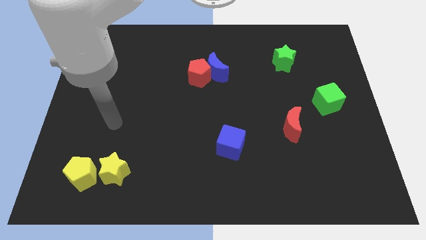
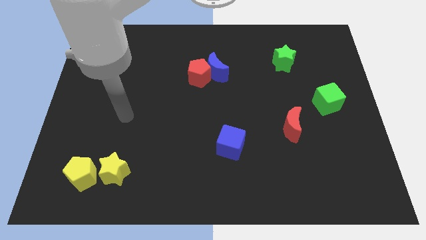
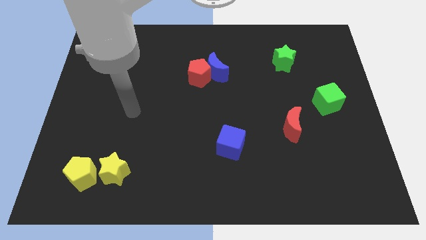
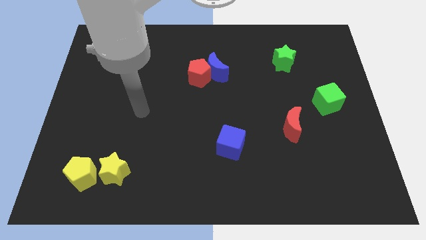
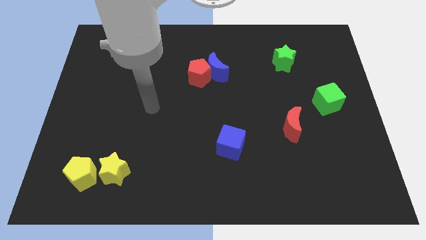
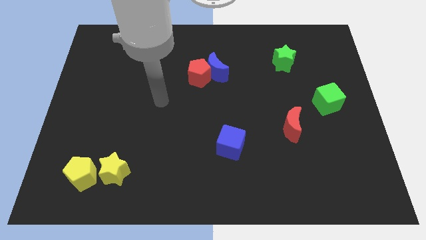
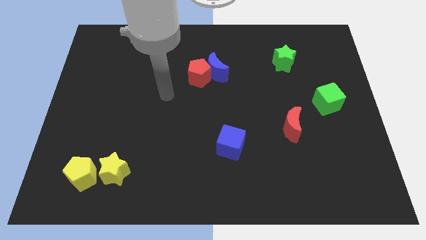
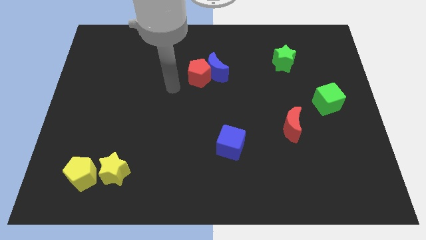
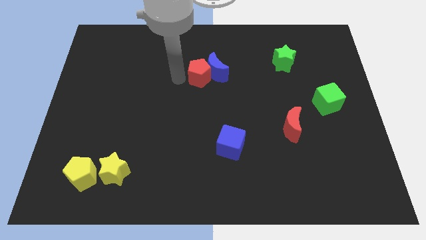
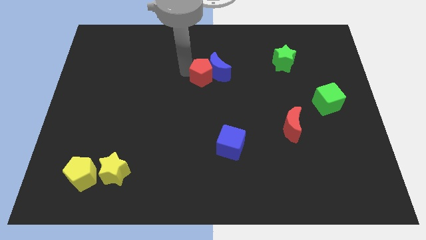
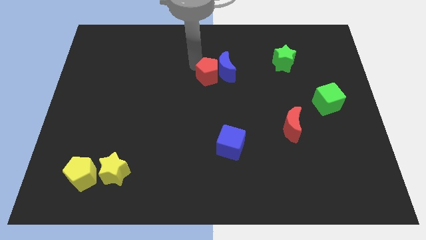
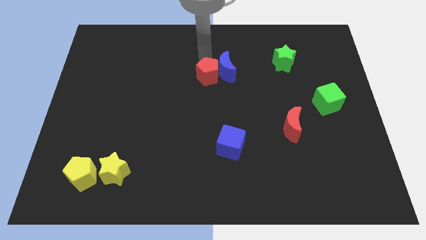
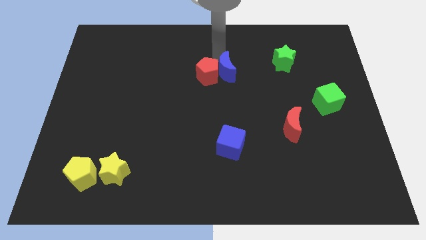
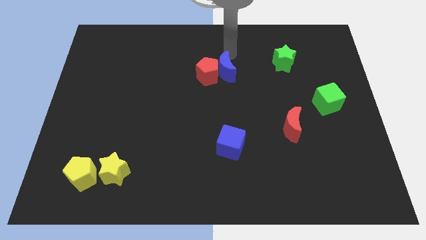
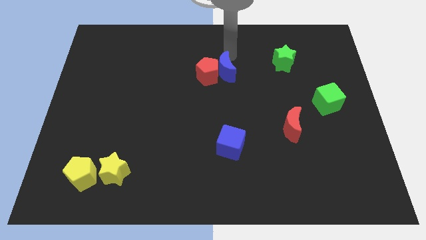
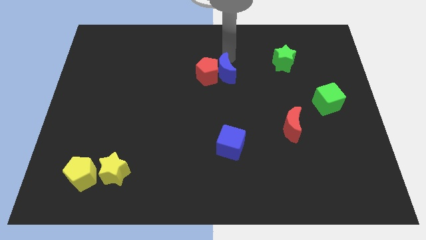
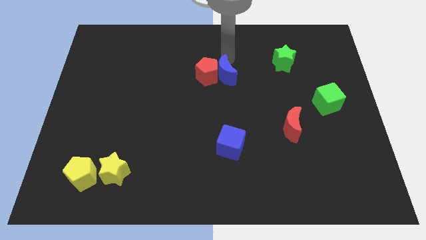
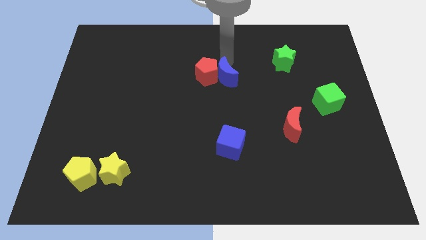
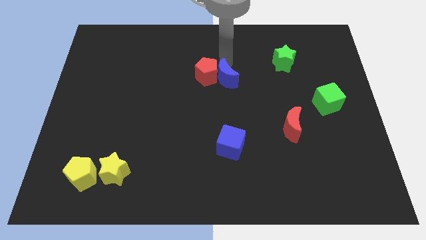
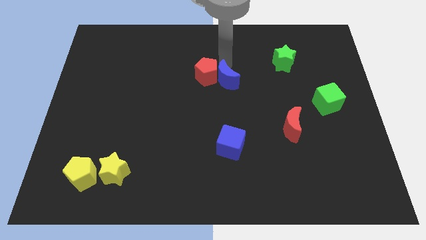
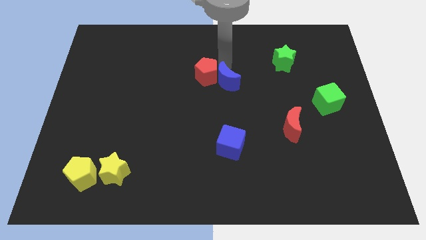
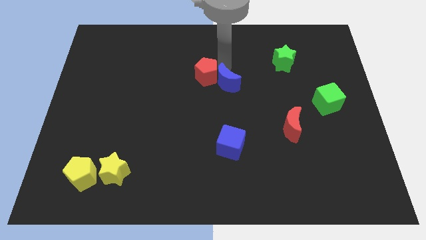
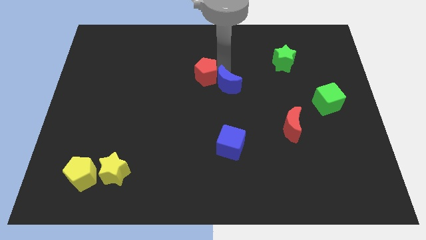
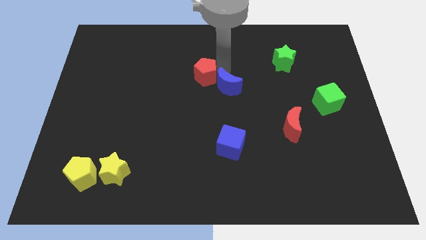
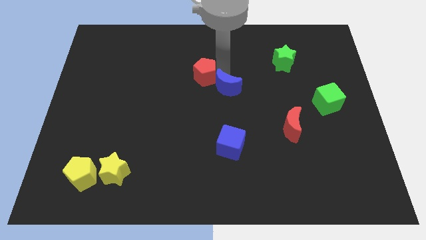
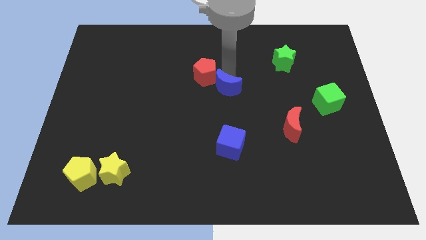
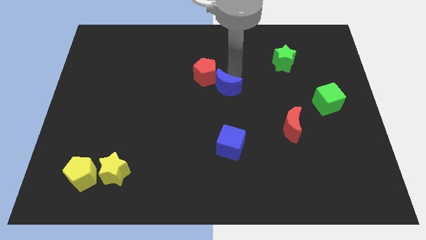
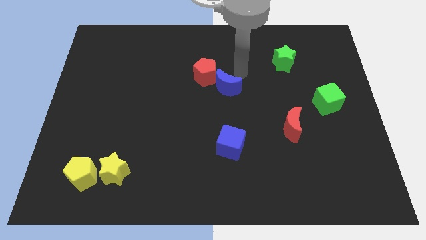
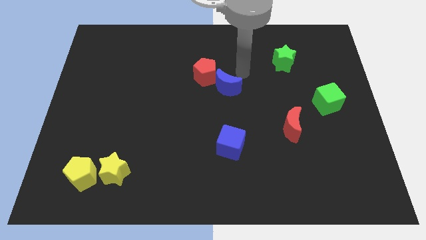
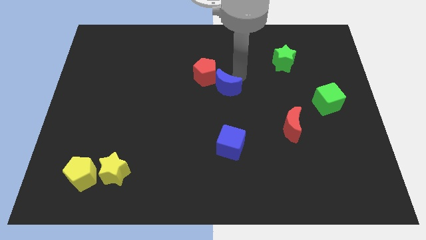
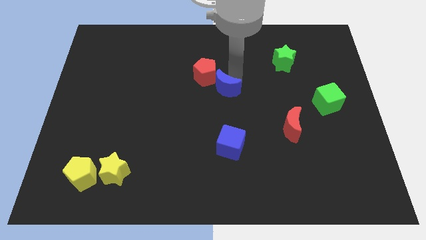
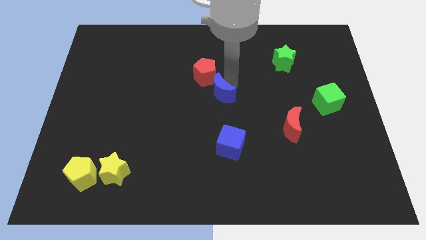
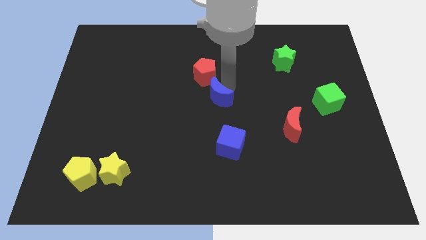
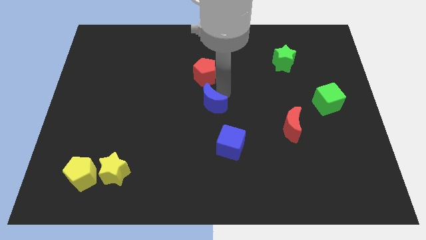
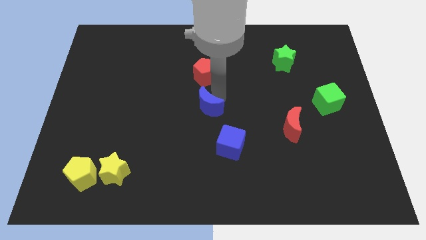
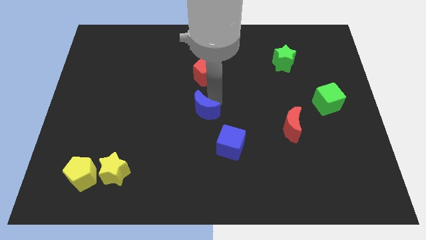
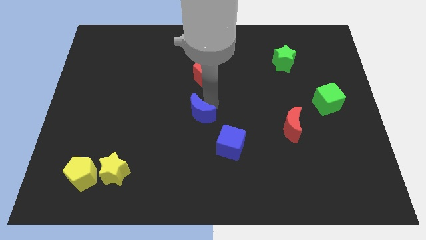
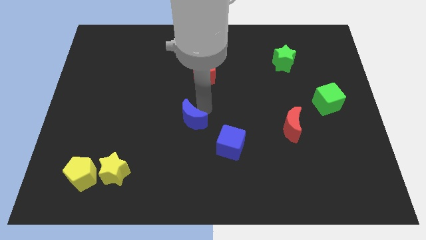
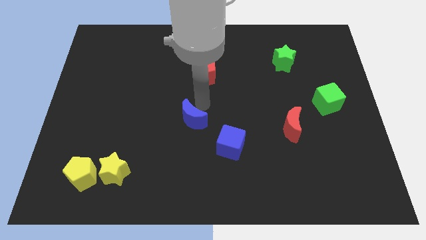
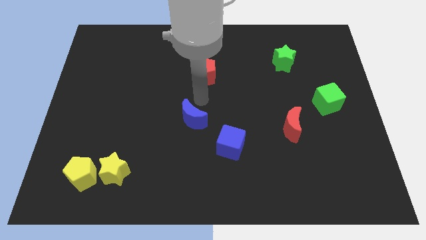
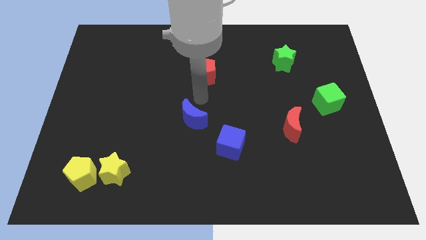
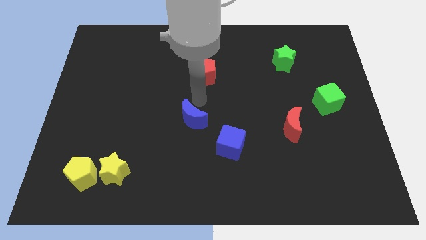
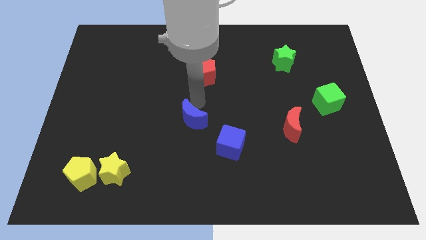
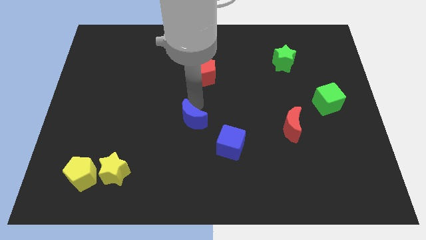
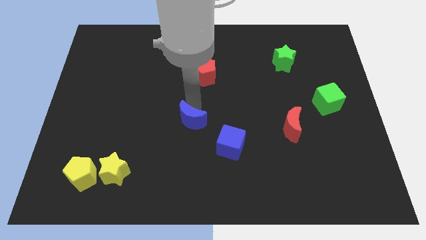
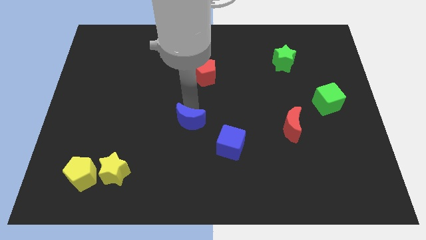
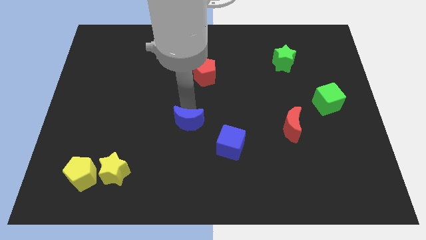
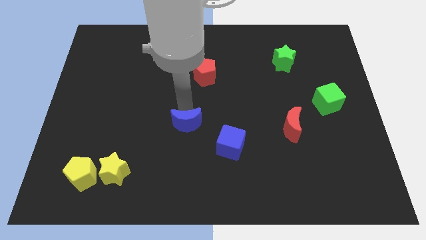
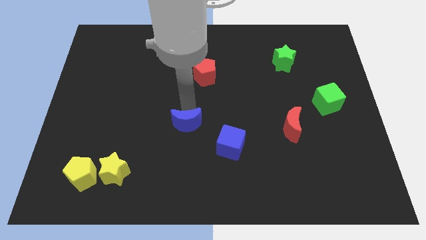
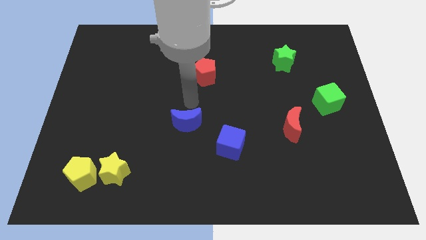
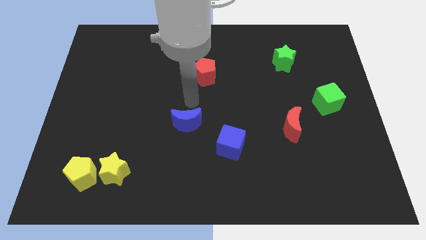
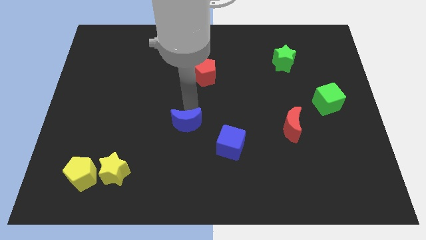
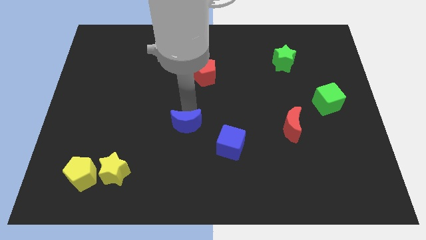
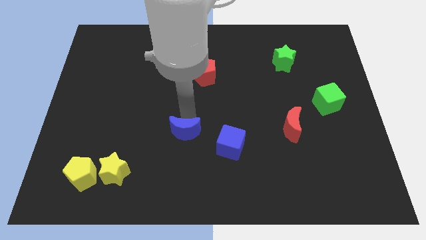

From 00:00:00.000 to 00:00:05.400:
put the blue moon left of the blue cube

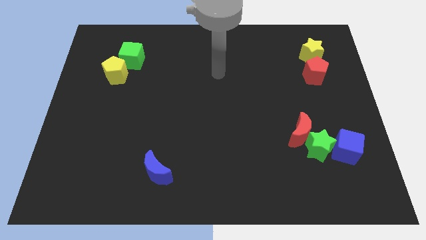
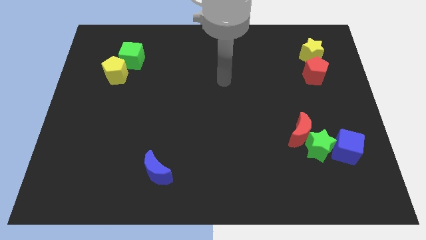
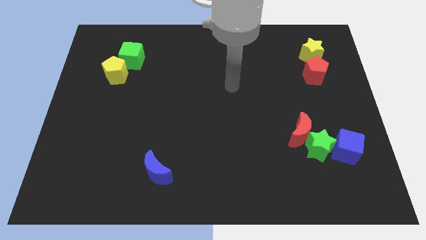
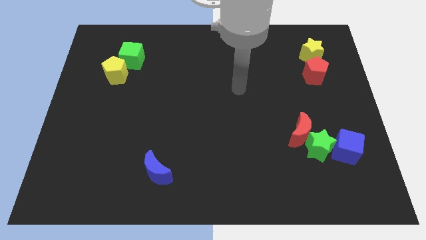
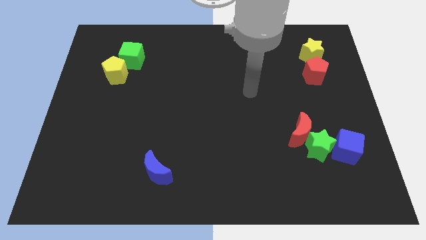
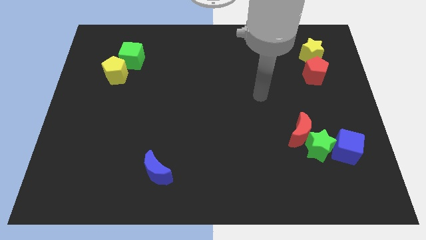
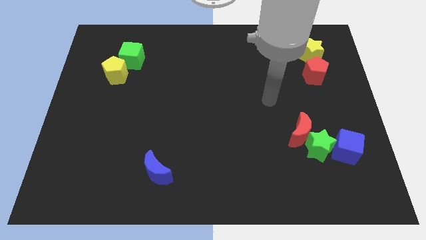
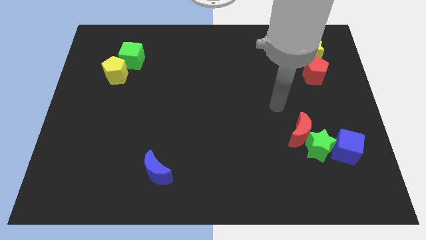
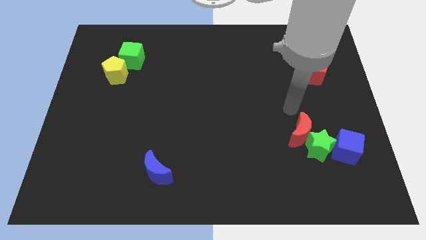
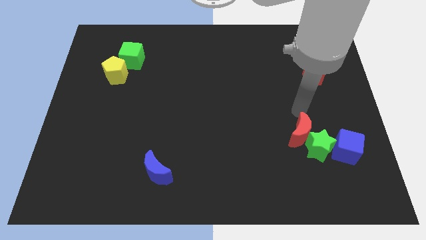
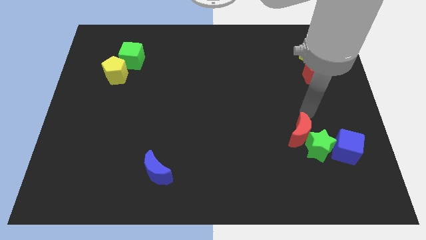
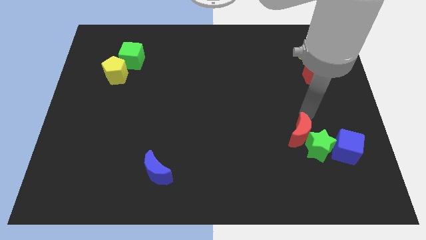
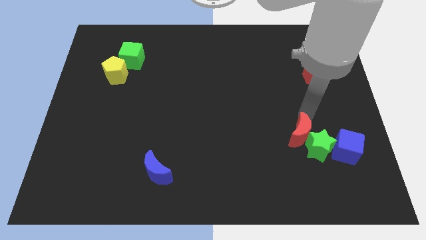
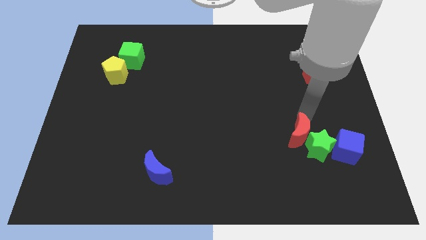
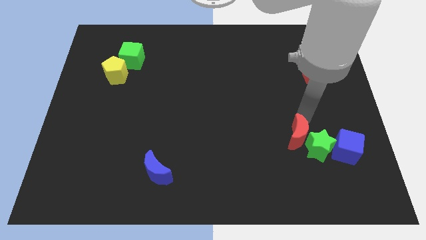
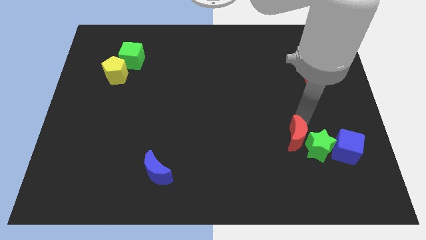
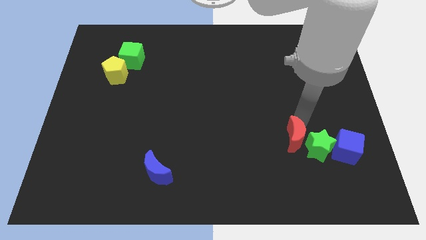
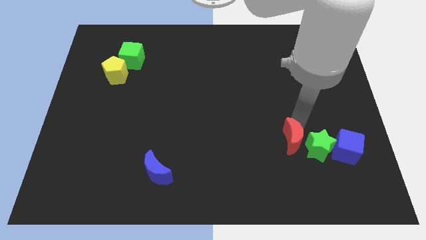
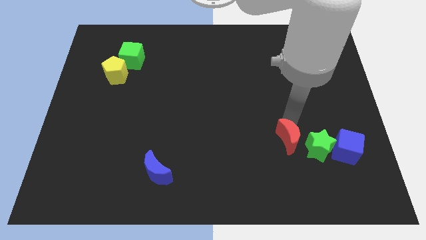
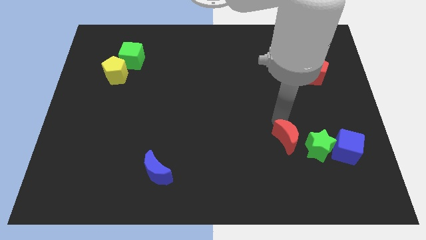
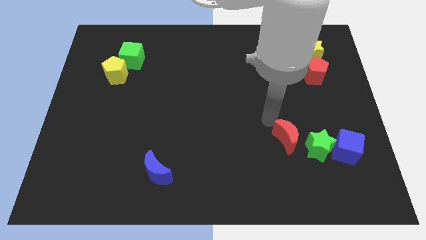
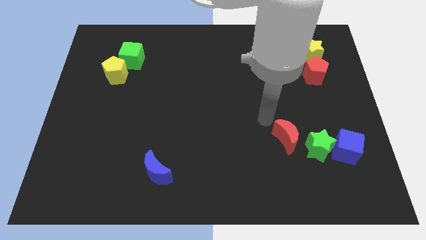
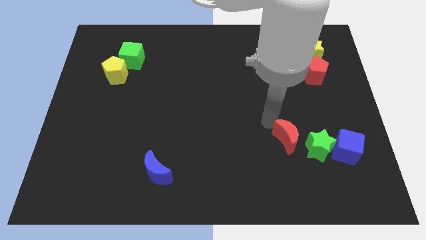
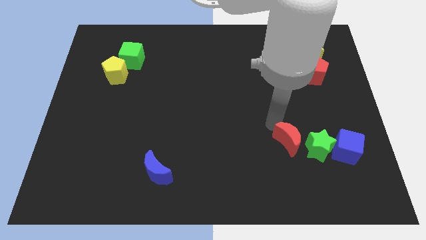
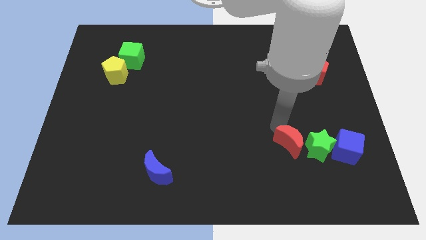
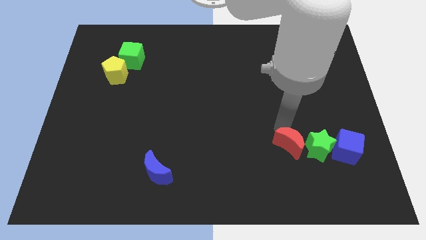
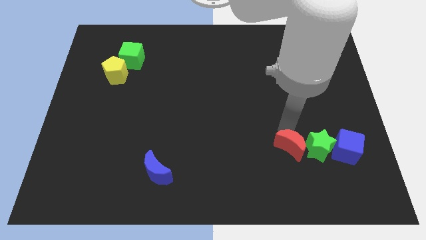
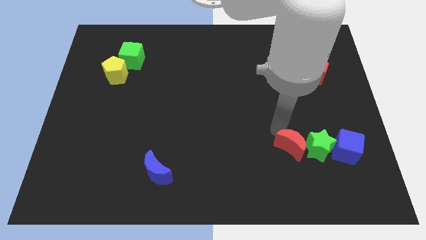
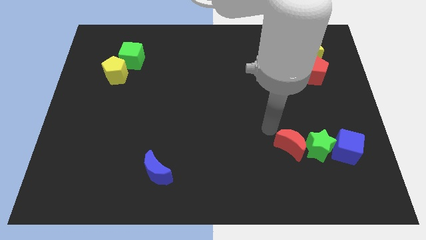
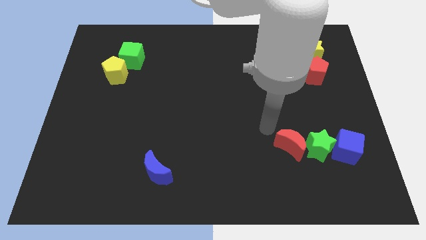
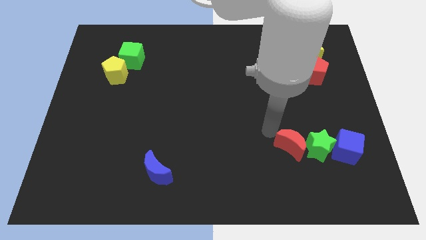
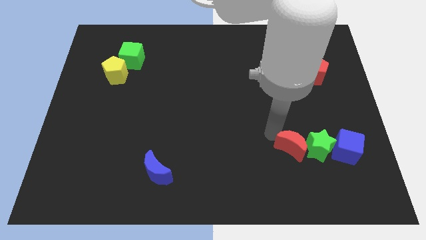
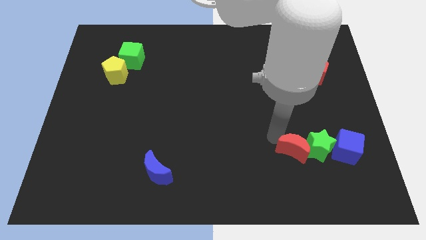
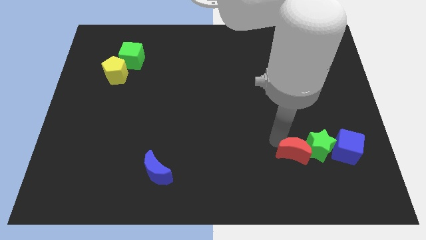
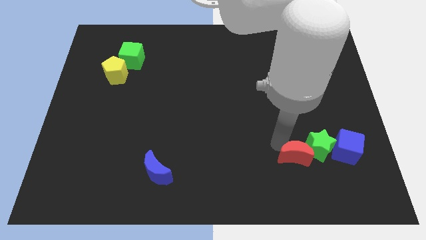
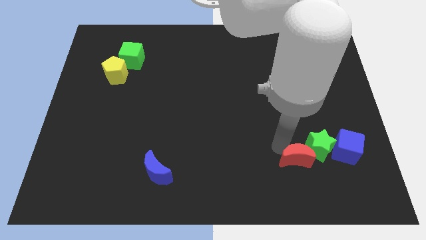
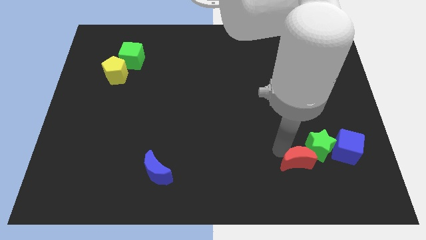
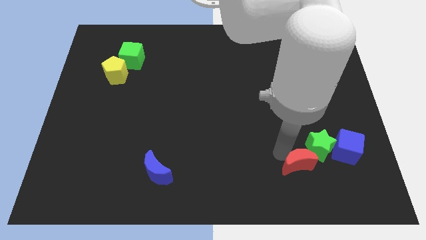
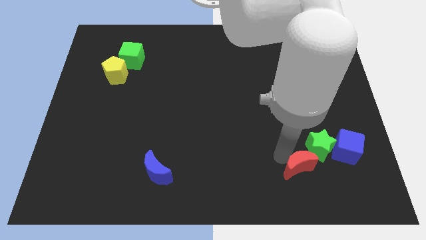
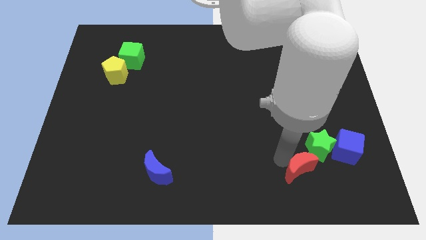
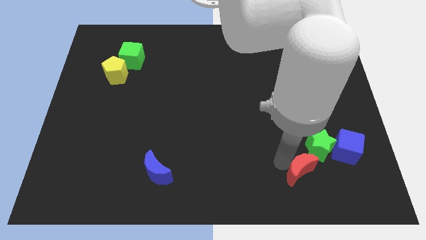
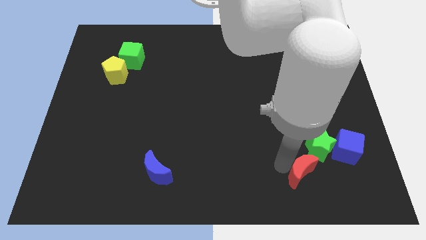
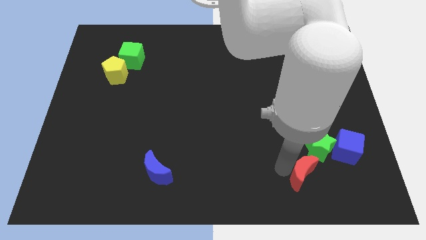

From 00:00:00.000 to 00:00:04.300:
push the red moon to the bottom left of the blue cube
